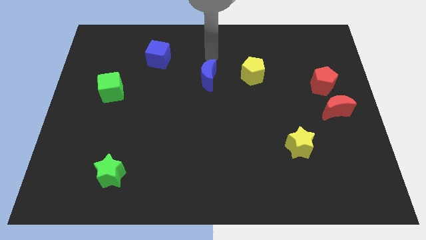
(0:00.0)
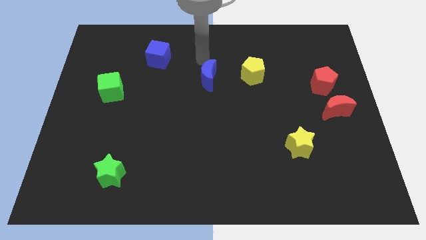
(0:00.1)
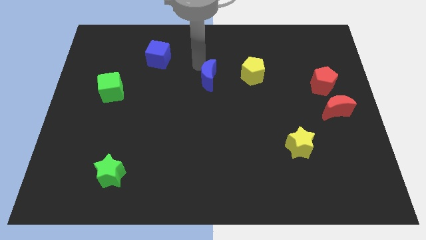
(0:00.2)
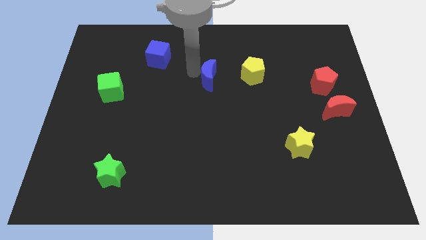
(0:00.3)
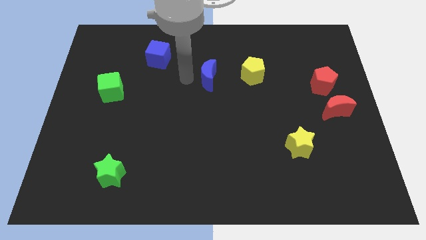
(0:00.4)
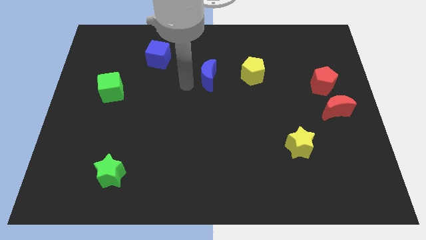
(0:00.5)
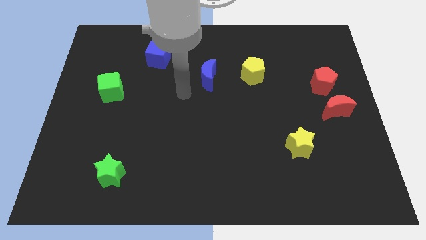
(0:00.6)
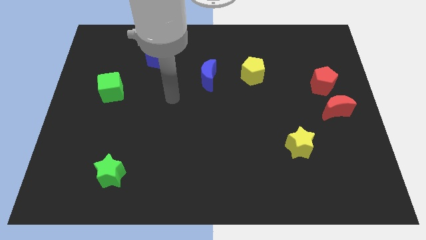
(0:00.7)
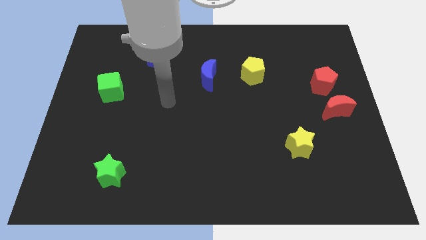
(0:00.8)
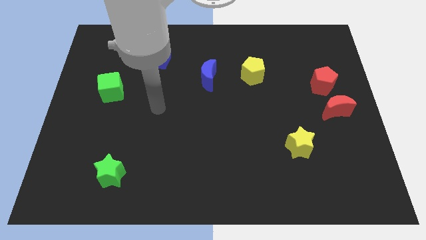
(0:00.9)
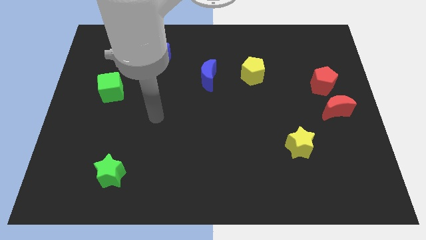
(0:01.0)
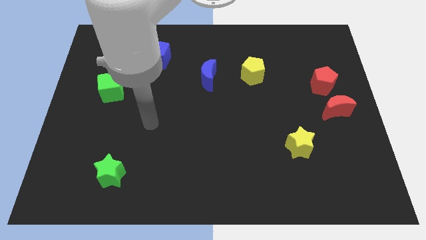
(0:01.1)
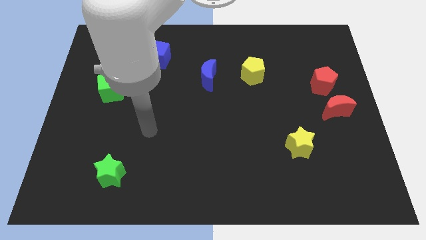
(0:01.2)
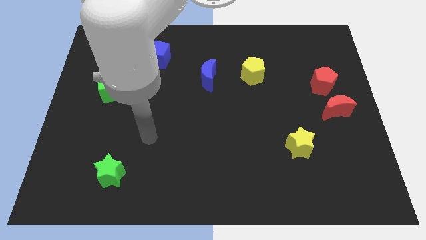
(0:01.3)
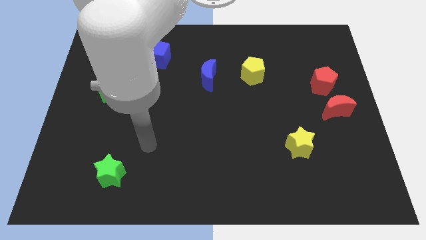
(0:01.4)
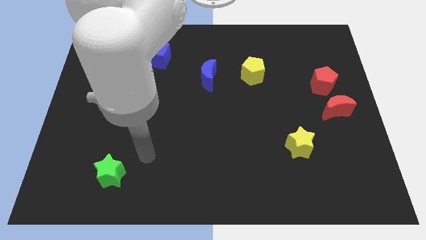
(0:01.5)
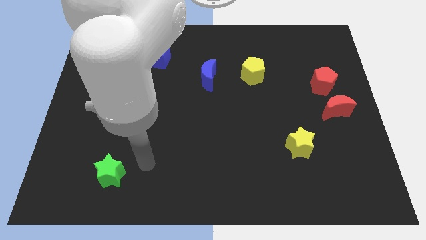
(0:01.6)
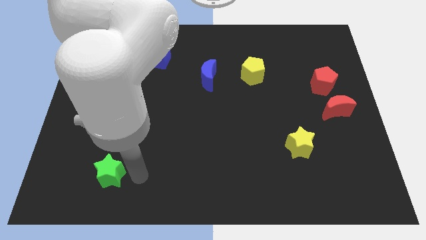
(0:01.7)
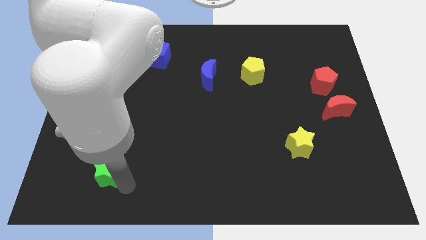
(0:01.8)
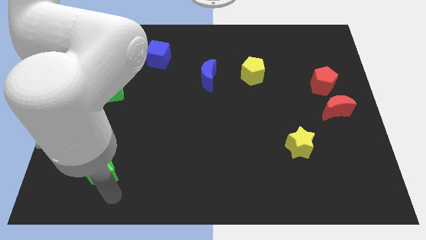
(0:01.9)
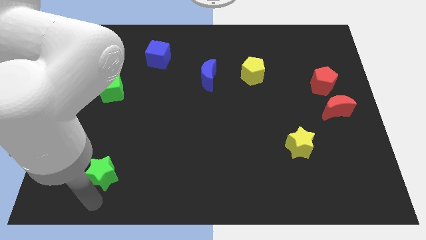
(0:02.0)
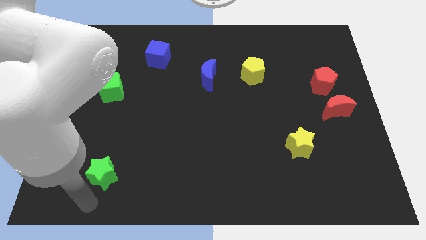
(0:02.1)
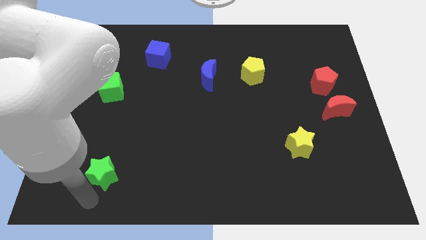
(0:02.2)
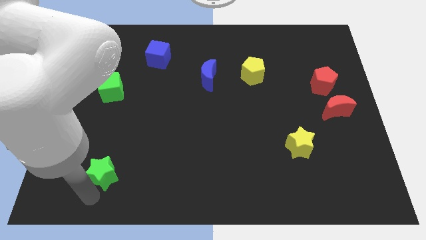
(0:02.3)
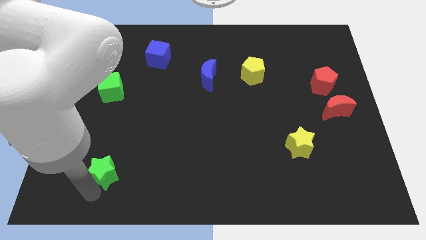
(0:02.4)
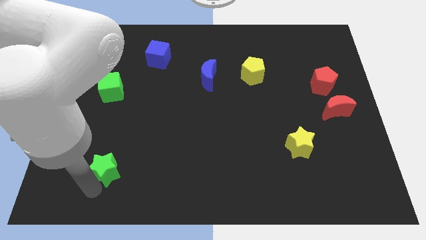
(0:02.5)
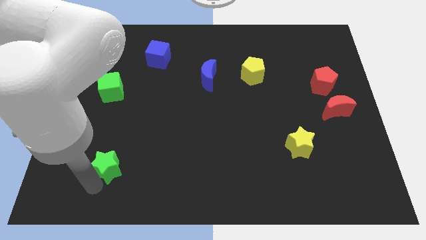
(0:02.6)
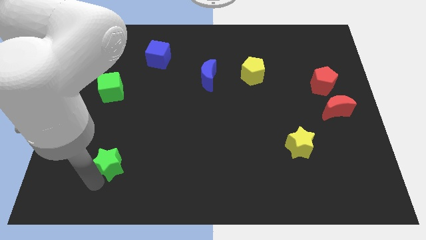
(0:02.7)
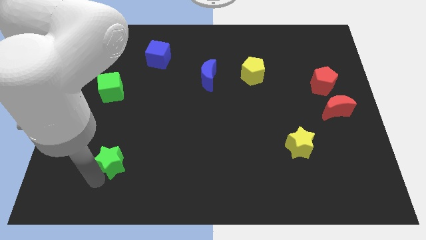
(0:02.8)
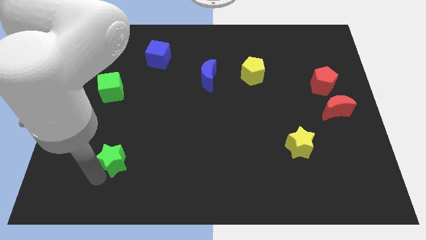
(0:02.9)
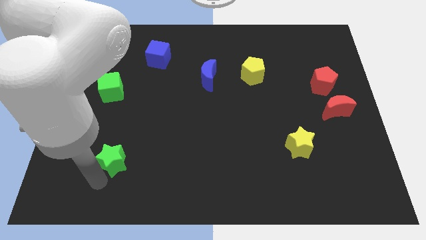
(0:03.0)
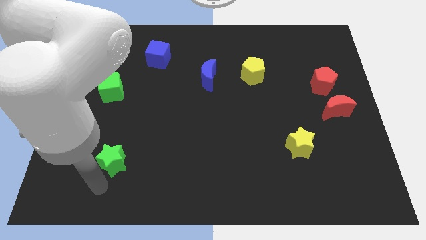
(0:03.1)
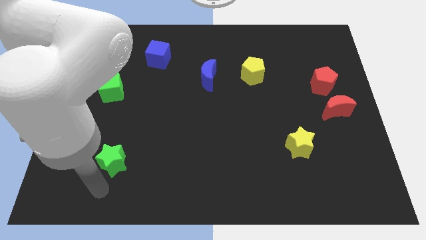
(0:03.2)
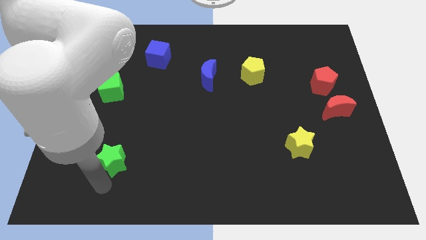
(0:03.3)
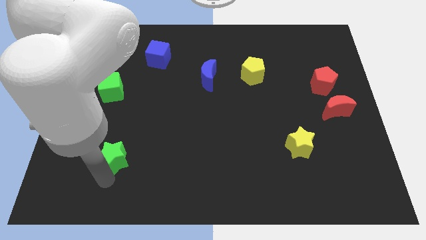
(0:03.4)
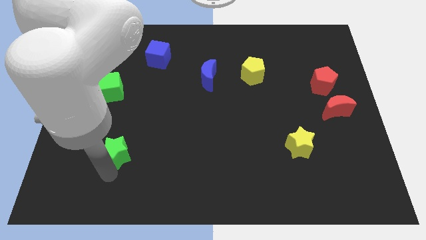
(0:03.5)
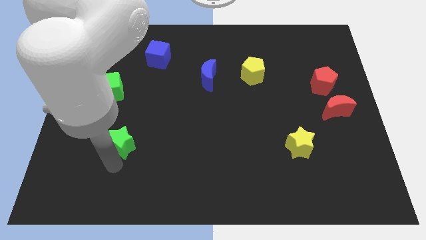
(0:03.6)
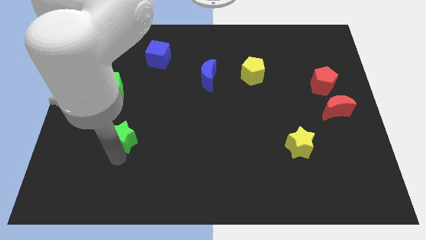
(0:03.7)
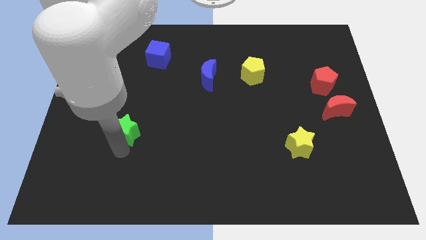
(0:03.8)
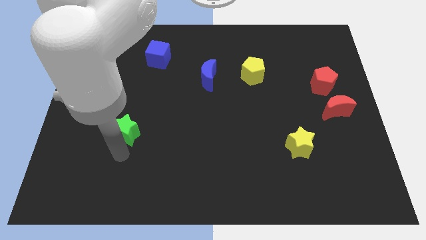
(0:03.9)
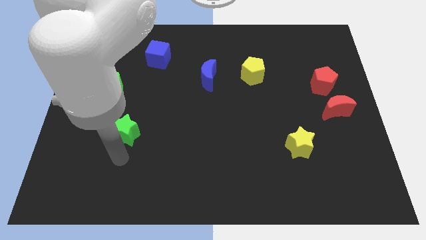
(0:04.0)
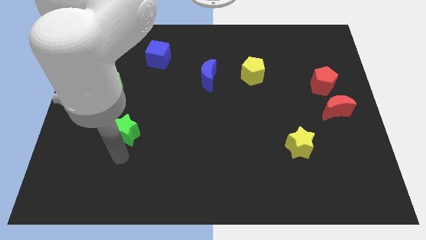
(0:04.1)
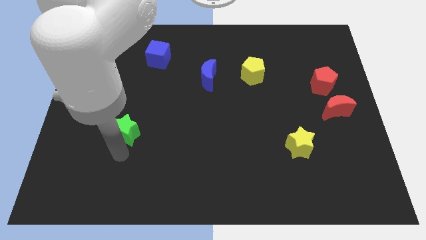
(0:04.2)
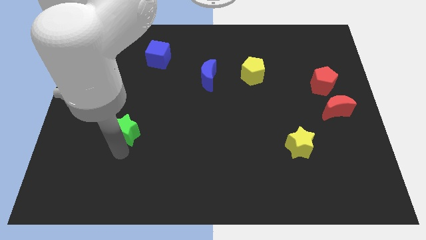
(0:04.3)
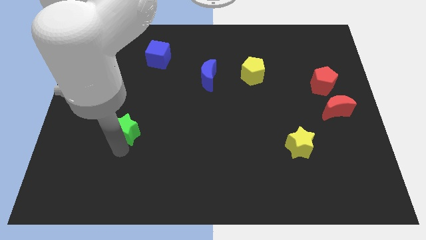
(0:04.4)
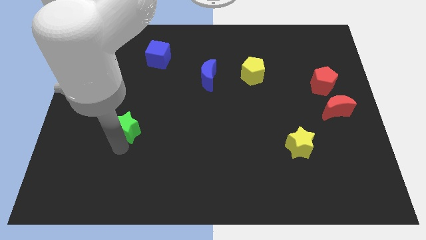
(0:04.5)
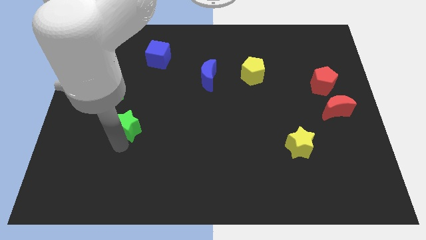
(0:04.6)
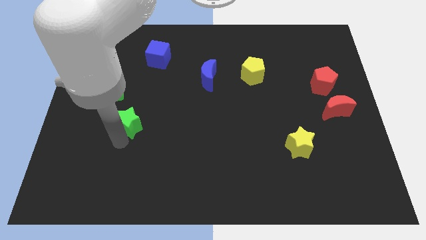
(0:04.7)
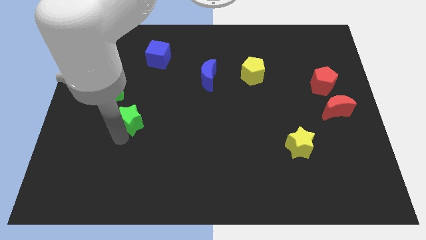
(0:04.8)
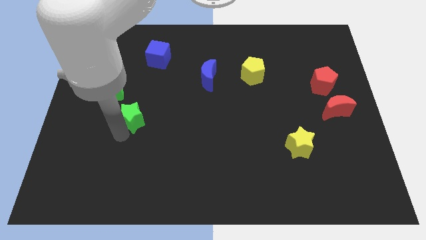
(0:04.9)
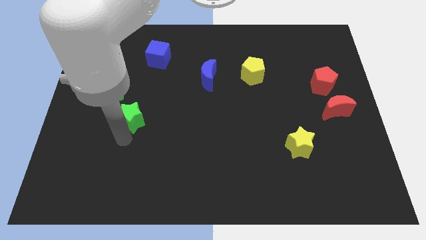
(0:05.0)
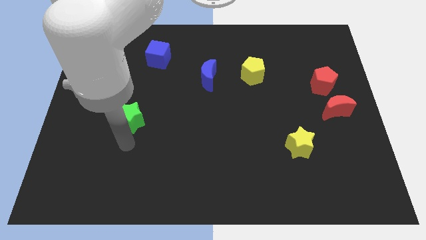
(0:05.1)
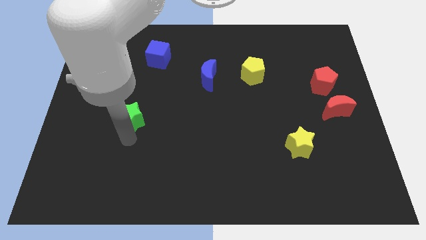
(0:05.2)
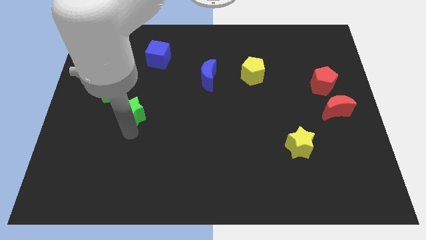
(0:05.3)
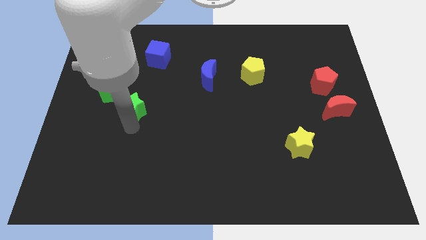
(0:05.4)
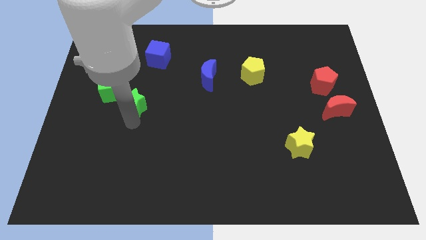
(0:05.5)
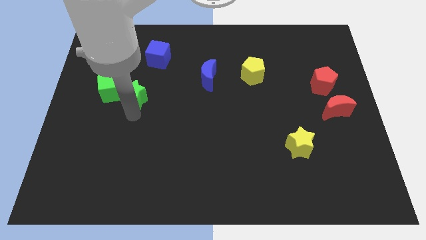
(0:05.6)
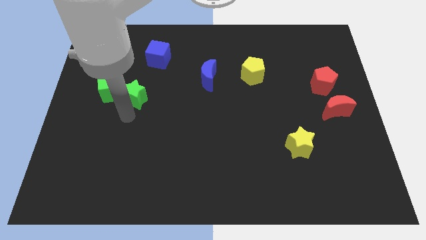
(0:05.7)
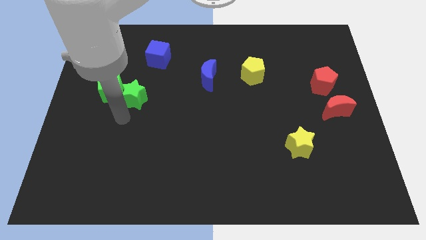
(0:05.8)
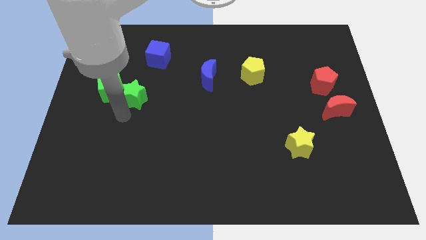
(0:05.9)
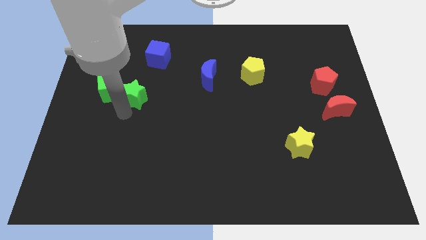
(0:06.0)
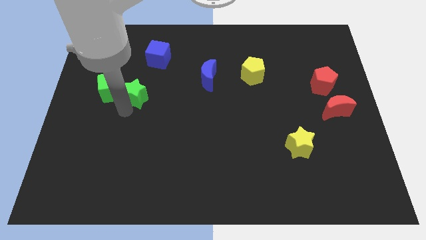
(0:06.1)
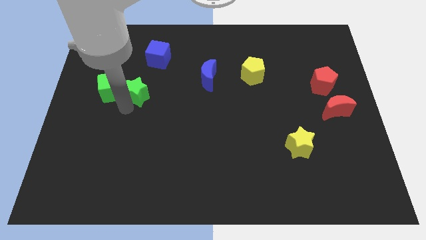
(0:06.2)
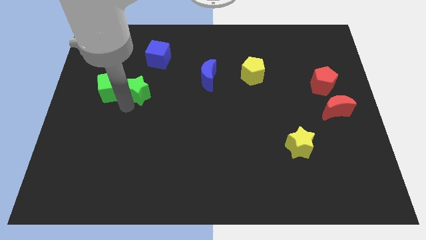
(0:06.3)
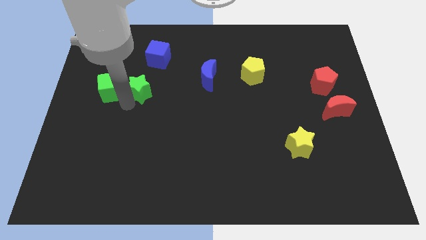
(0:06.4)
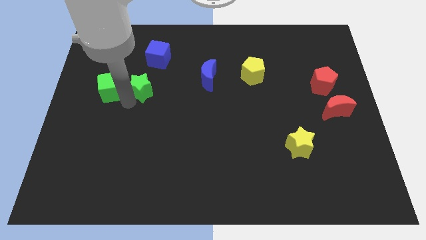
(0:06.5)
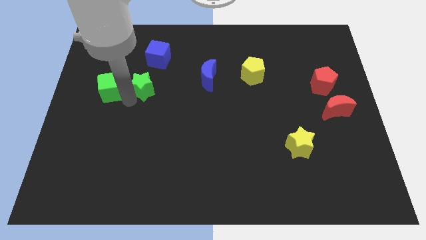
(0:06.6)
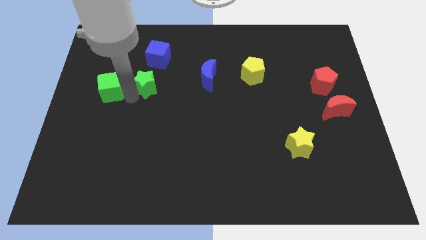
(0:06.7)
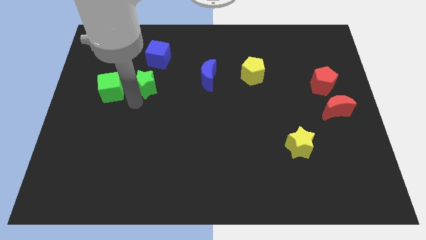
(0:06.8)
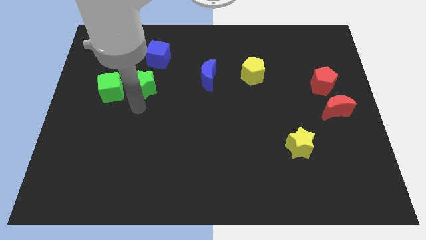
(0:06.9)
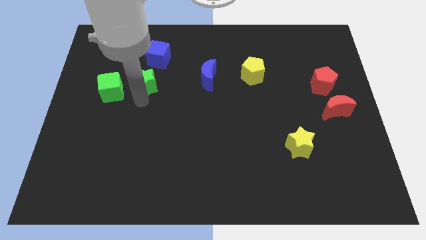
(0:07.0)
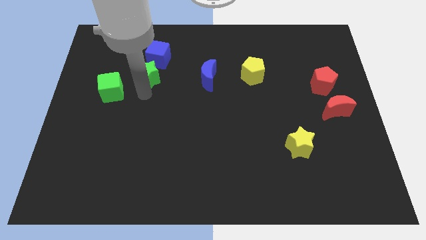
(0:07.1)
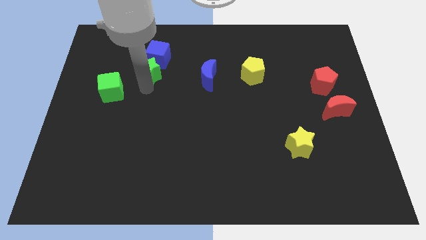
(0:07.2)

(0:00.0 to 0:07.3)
push the green star next to the blue cube
